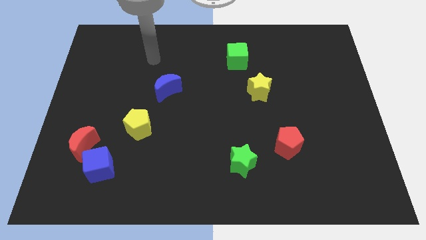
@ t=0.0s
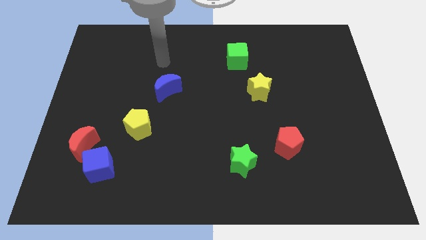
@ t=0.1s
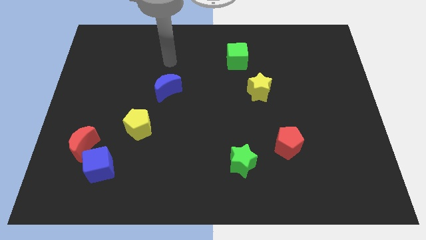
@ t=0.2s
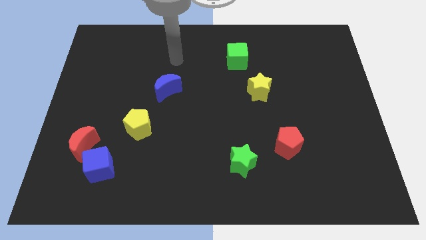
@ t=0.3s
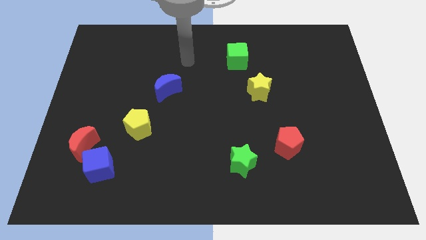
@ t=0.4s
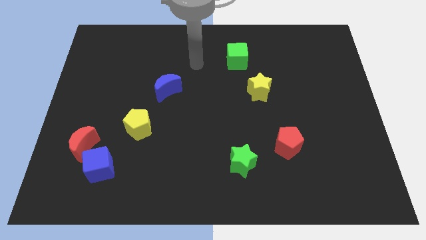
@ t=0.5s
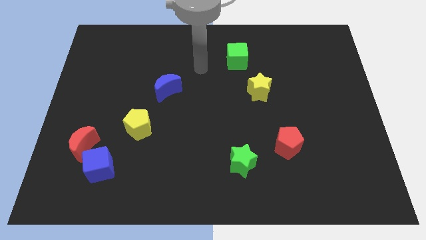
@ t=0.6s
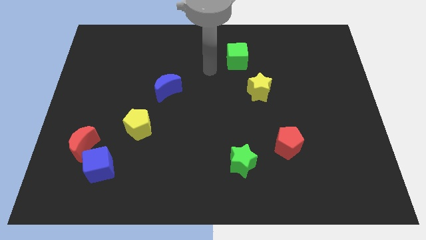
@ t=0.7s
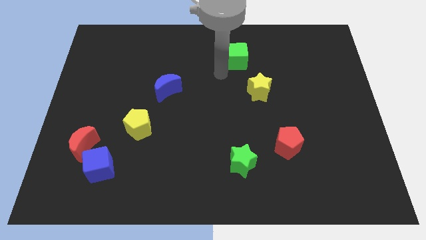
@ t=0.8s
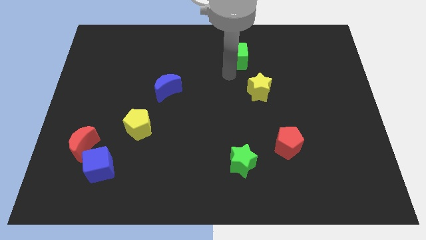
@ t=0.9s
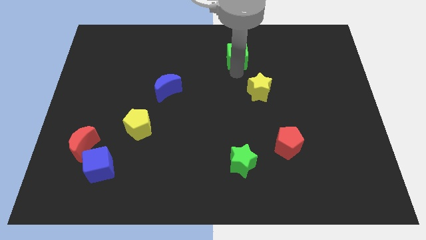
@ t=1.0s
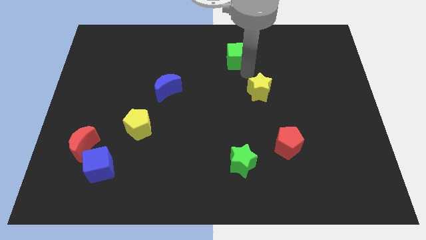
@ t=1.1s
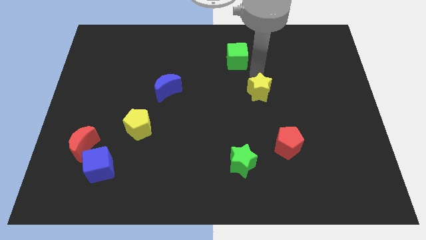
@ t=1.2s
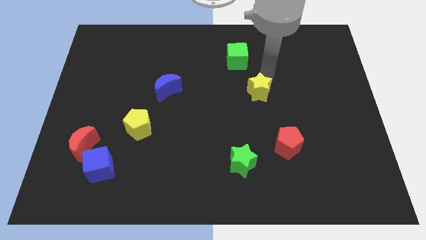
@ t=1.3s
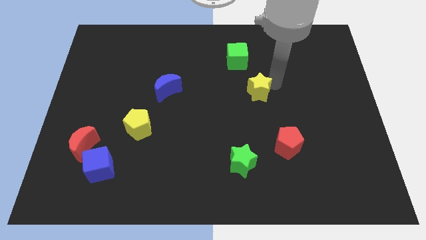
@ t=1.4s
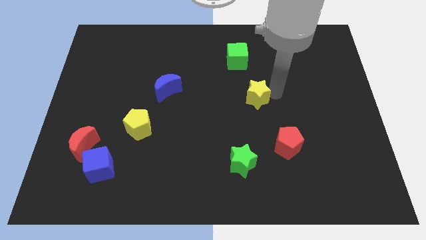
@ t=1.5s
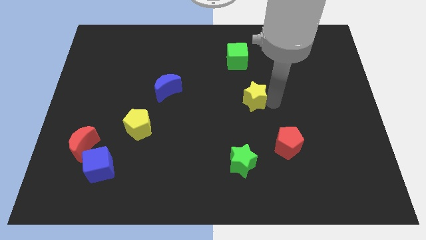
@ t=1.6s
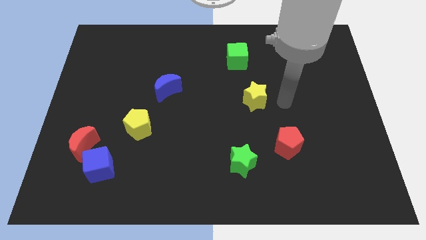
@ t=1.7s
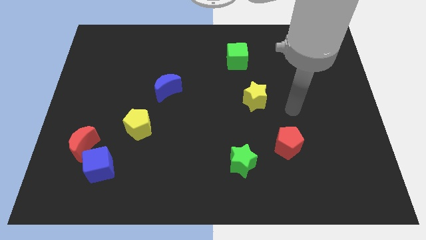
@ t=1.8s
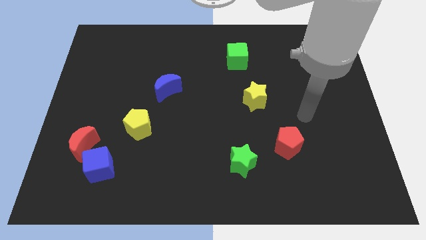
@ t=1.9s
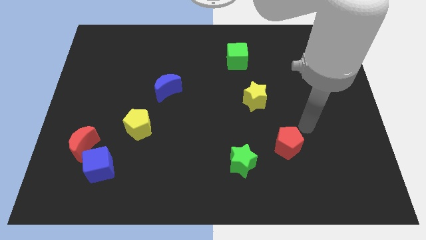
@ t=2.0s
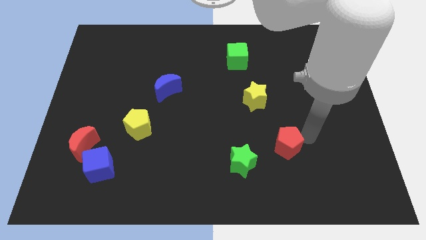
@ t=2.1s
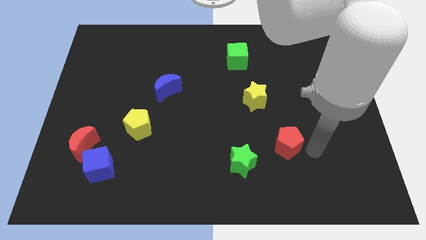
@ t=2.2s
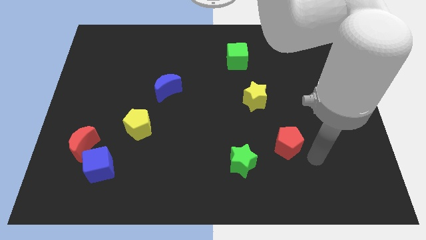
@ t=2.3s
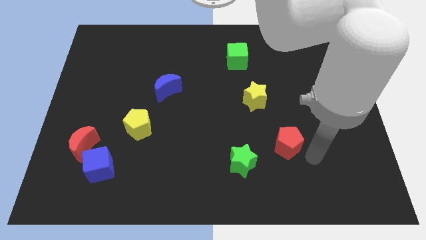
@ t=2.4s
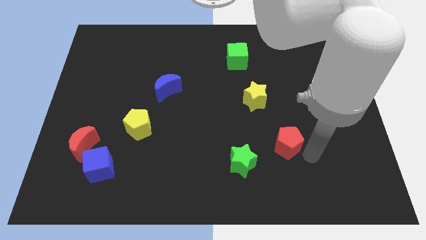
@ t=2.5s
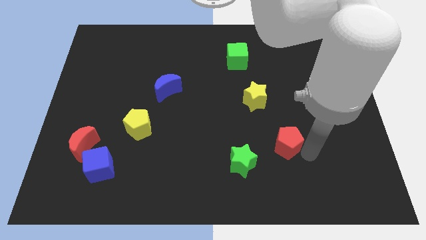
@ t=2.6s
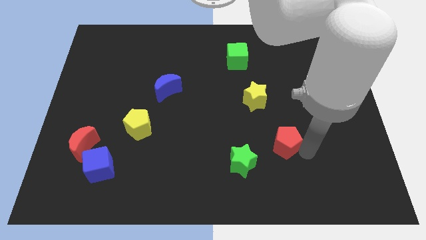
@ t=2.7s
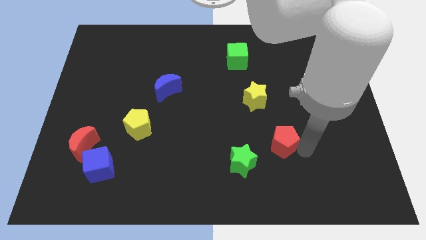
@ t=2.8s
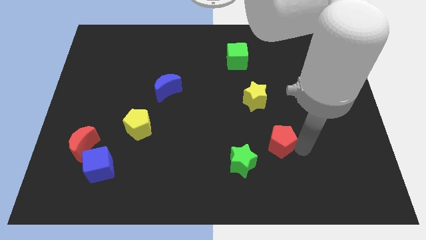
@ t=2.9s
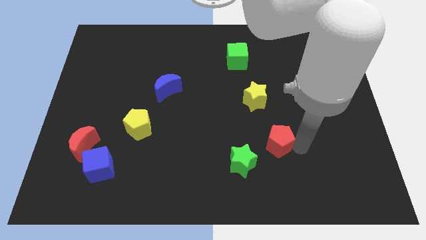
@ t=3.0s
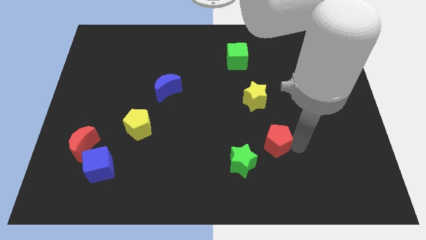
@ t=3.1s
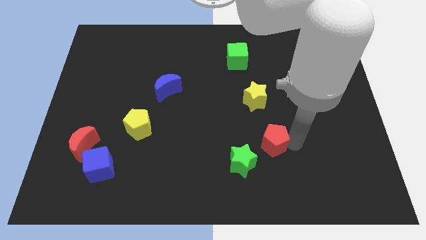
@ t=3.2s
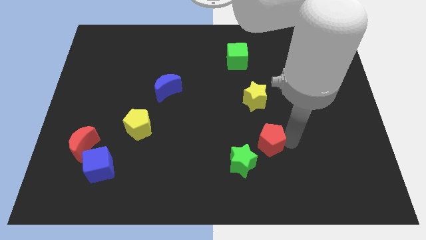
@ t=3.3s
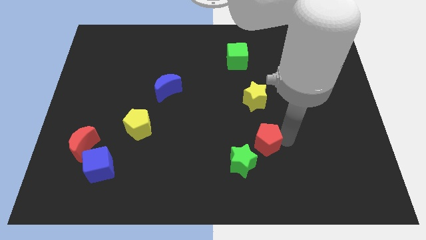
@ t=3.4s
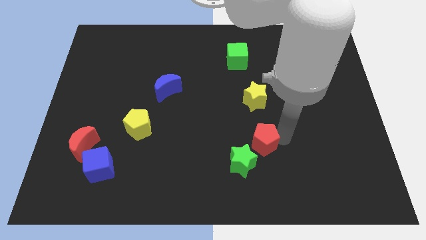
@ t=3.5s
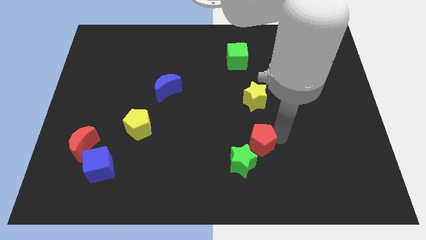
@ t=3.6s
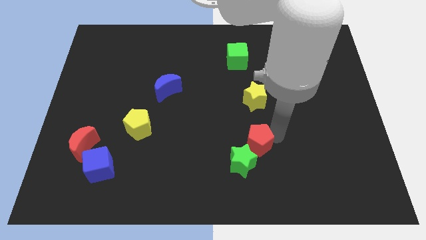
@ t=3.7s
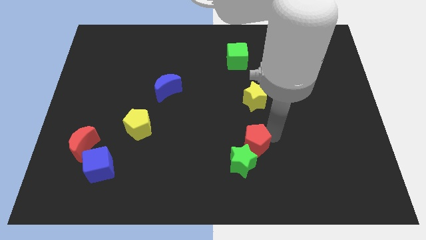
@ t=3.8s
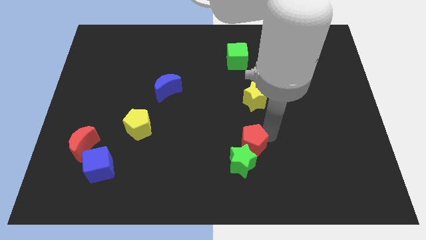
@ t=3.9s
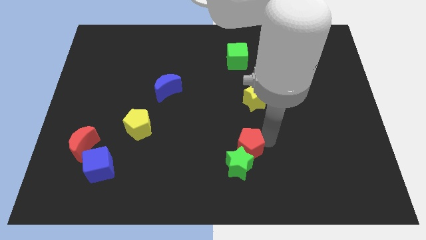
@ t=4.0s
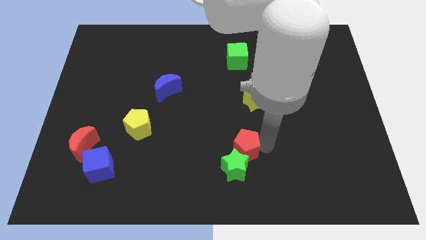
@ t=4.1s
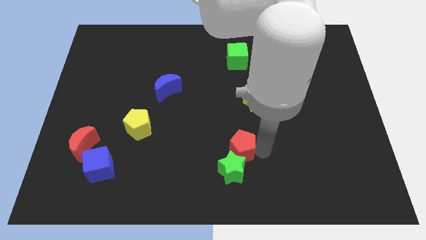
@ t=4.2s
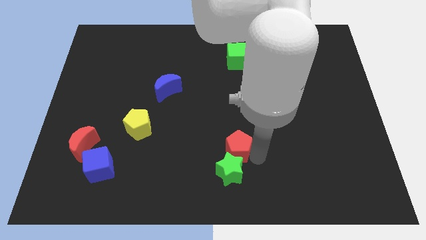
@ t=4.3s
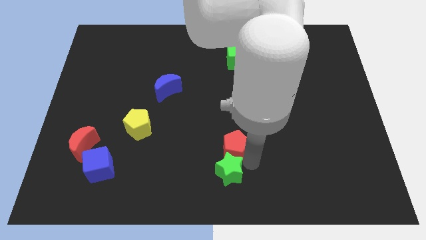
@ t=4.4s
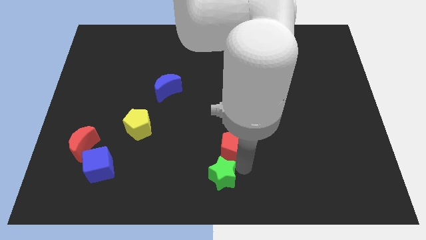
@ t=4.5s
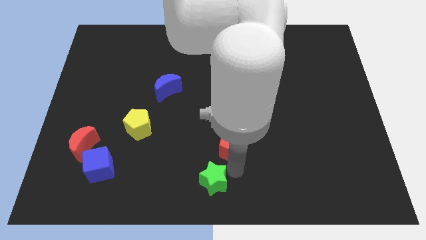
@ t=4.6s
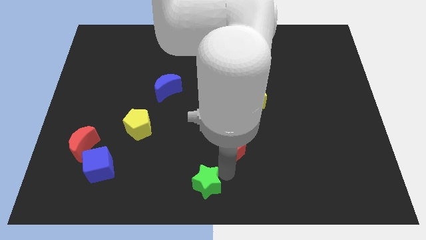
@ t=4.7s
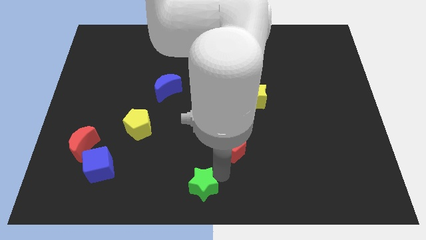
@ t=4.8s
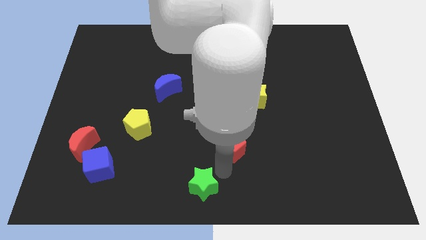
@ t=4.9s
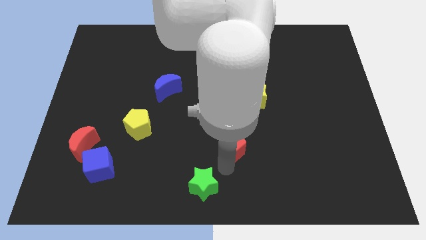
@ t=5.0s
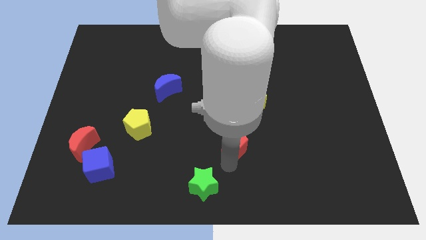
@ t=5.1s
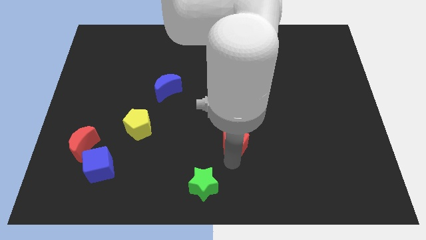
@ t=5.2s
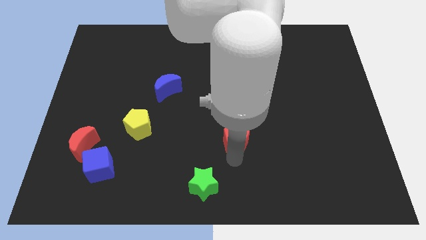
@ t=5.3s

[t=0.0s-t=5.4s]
push the red pentagon to the middle of the board

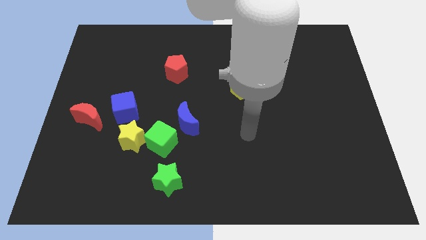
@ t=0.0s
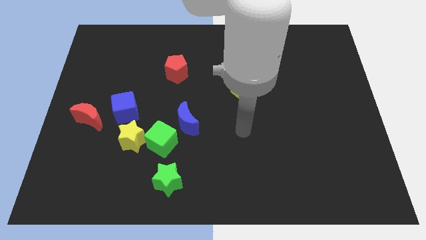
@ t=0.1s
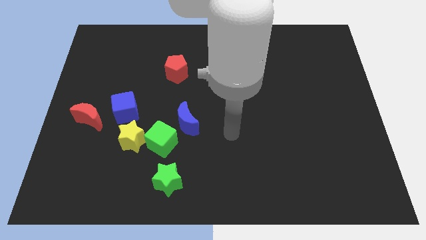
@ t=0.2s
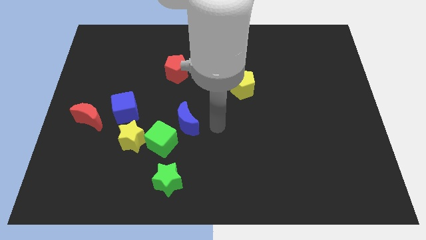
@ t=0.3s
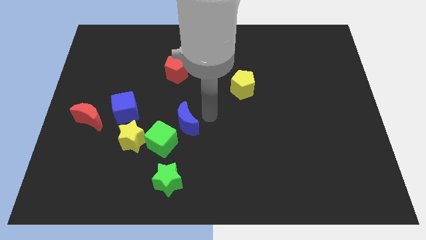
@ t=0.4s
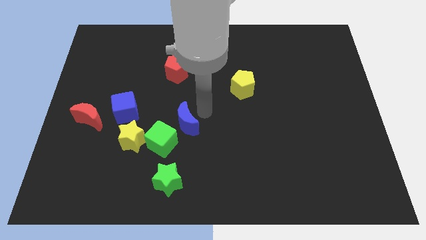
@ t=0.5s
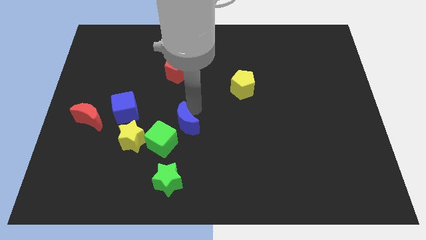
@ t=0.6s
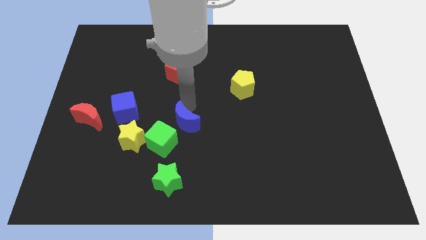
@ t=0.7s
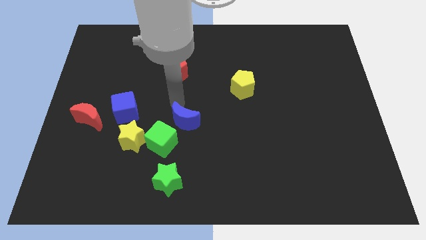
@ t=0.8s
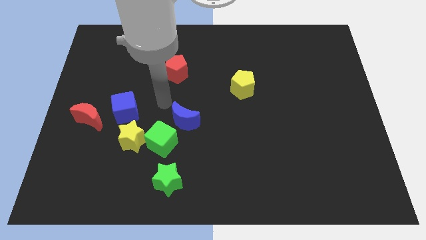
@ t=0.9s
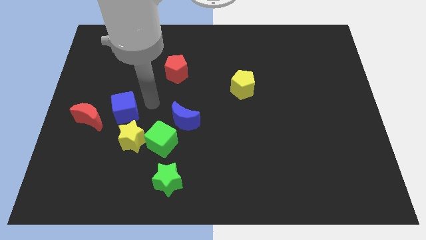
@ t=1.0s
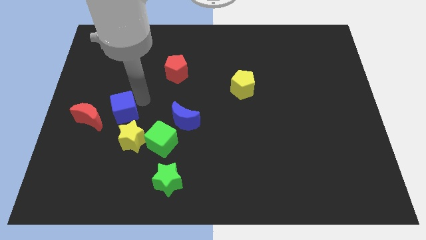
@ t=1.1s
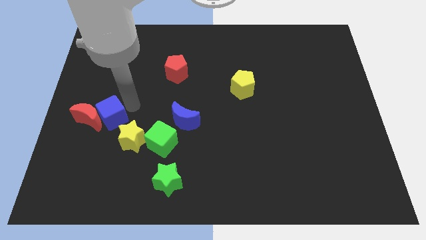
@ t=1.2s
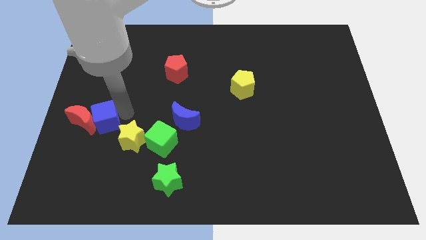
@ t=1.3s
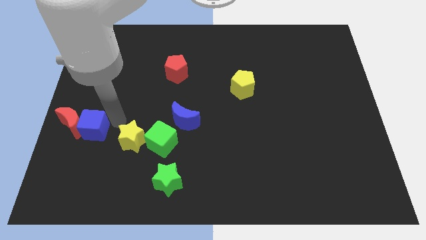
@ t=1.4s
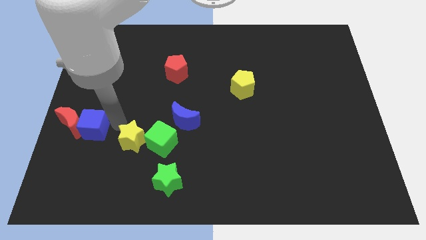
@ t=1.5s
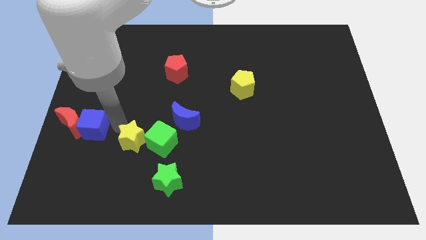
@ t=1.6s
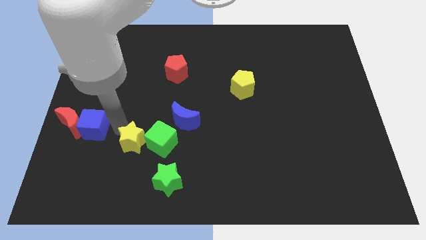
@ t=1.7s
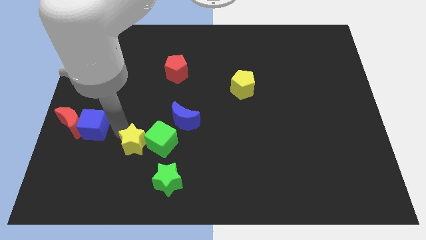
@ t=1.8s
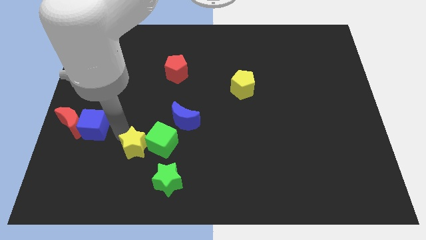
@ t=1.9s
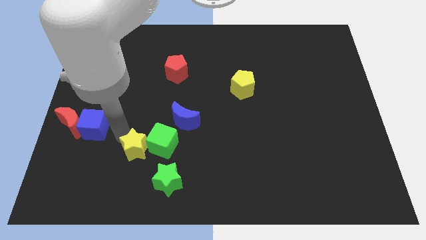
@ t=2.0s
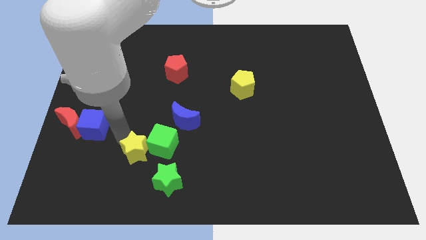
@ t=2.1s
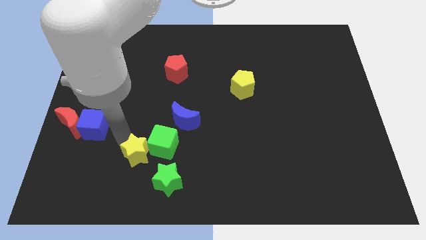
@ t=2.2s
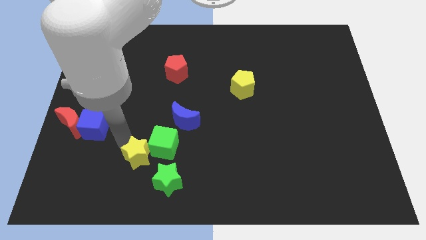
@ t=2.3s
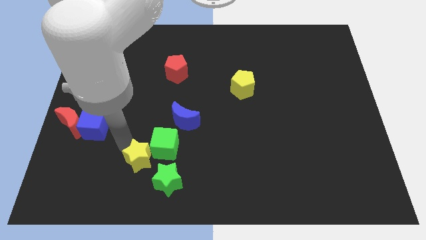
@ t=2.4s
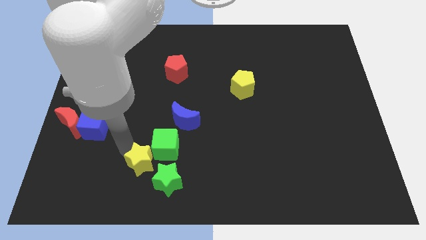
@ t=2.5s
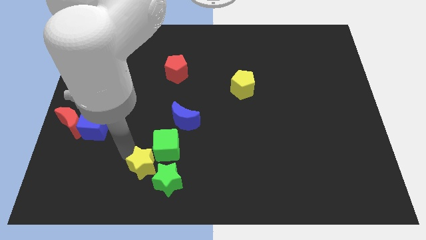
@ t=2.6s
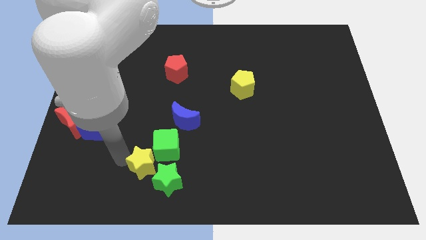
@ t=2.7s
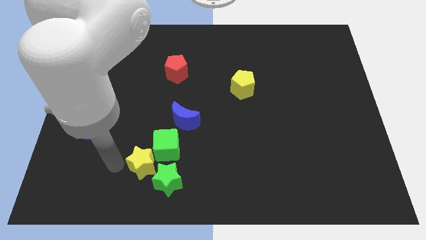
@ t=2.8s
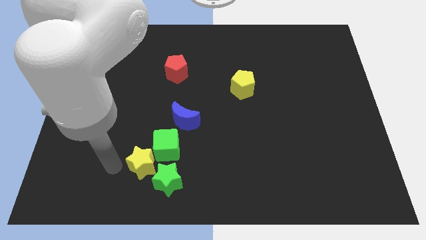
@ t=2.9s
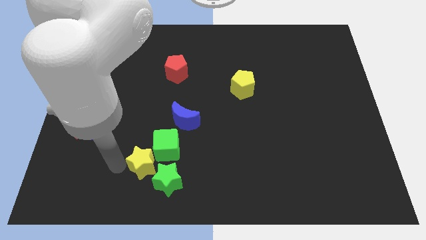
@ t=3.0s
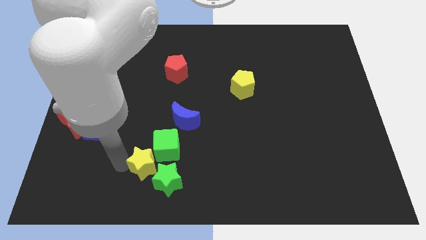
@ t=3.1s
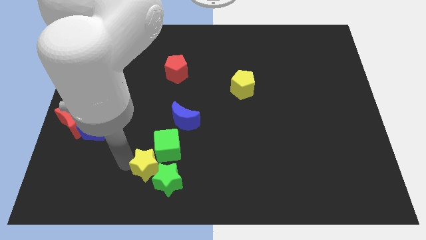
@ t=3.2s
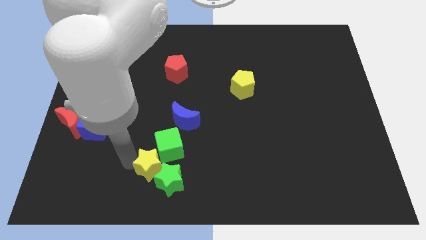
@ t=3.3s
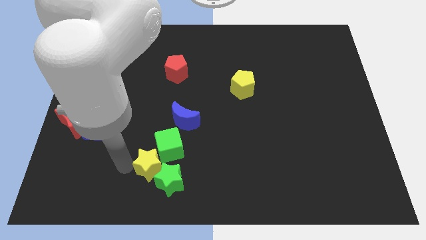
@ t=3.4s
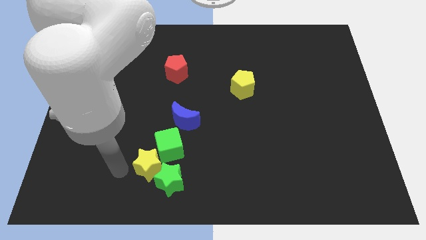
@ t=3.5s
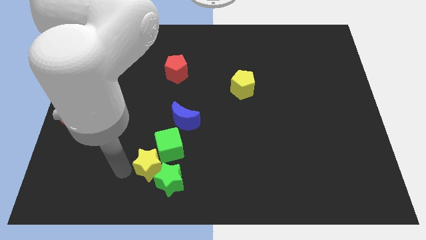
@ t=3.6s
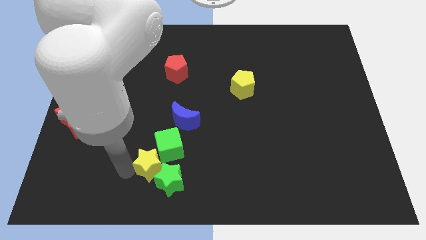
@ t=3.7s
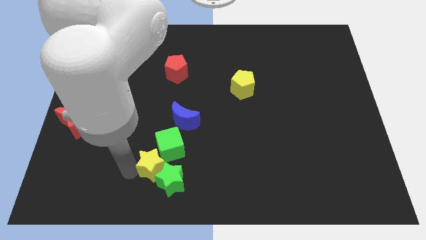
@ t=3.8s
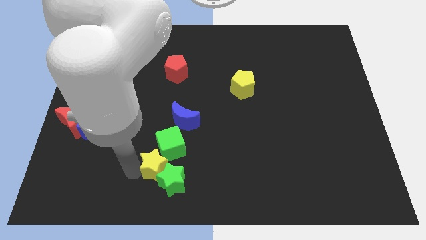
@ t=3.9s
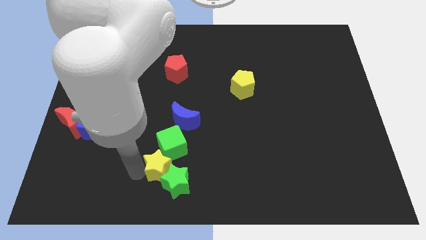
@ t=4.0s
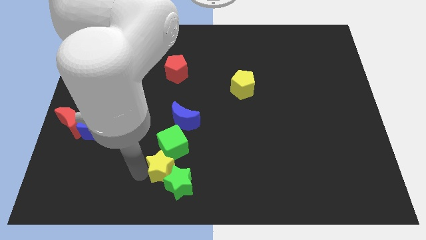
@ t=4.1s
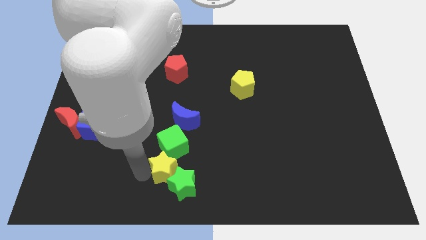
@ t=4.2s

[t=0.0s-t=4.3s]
slide the yellow star to the bottom side
